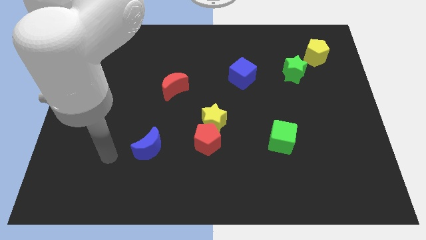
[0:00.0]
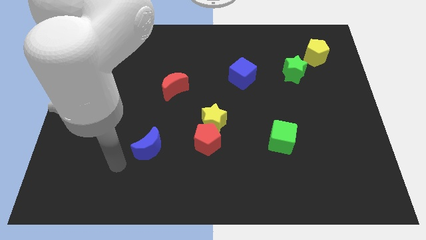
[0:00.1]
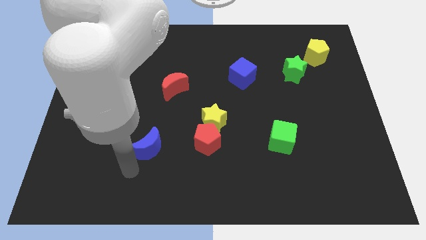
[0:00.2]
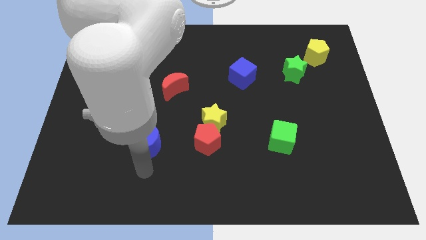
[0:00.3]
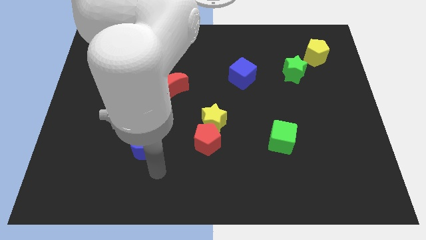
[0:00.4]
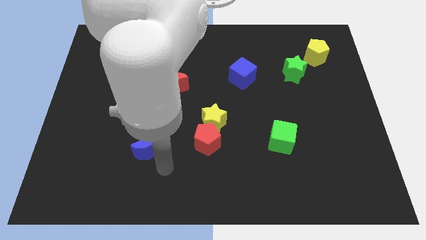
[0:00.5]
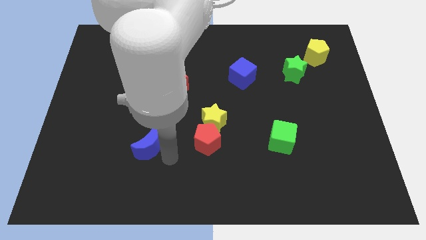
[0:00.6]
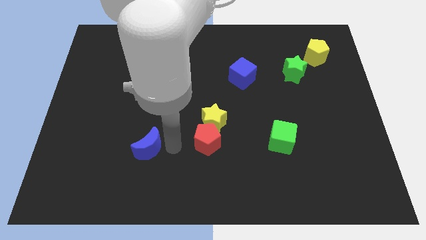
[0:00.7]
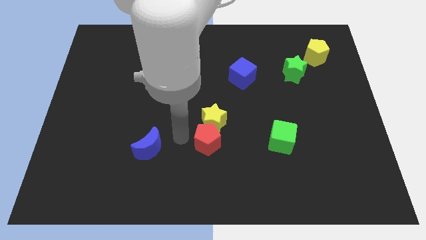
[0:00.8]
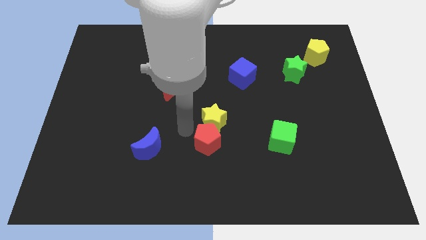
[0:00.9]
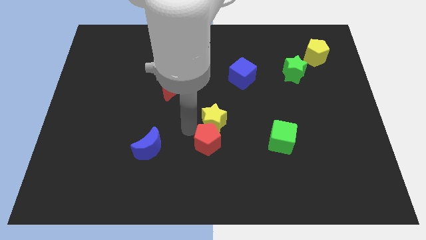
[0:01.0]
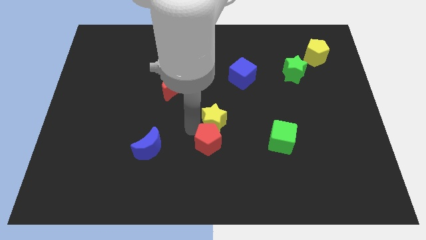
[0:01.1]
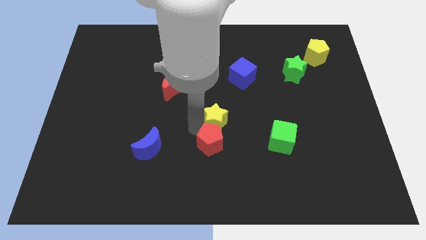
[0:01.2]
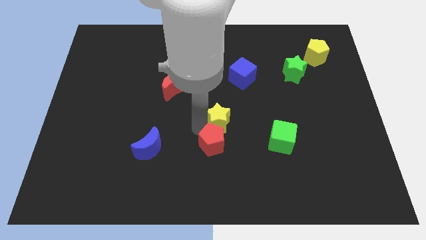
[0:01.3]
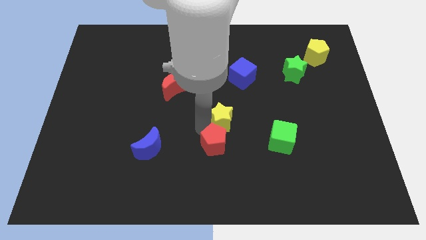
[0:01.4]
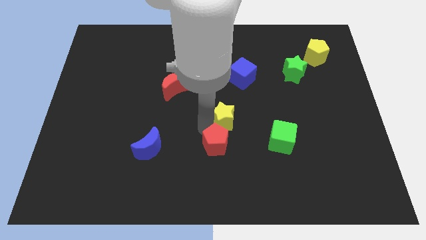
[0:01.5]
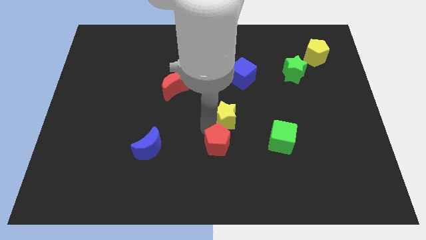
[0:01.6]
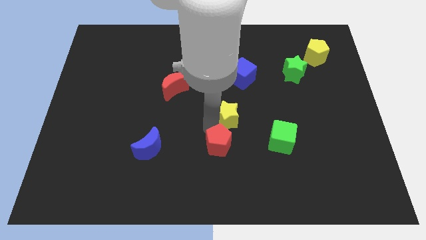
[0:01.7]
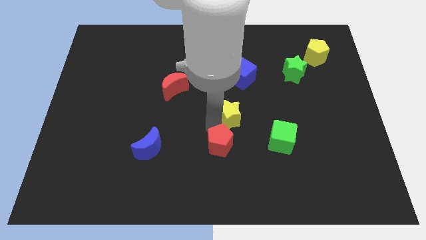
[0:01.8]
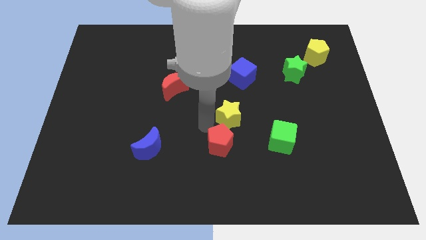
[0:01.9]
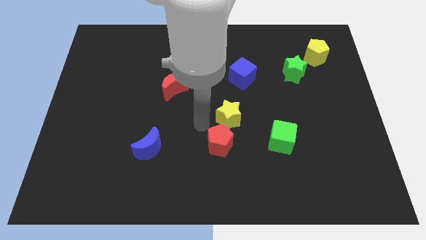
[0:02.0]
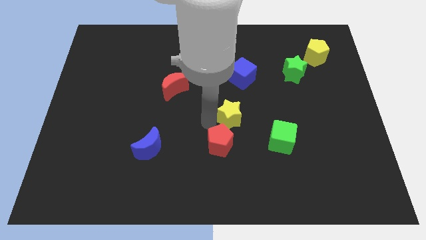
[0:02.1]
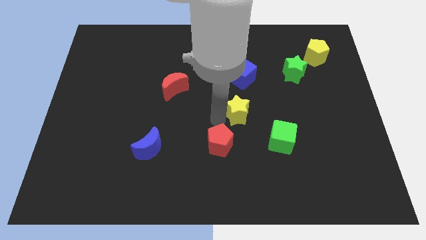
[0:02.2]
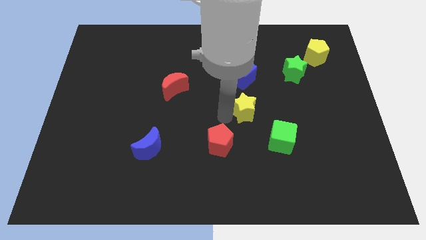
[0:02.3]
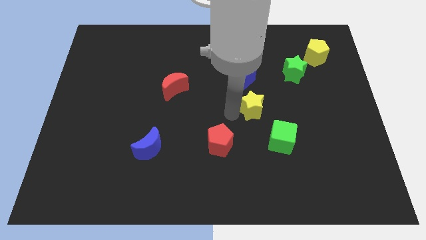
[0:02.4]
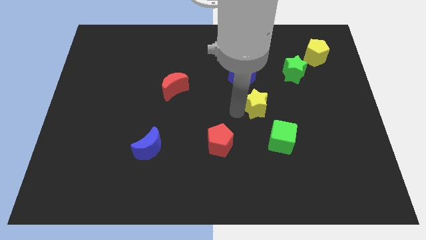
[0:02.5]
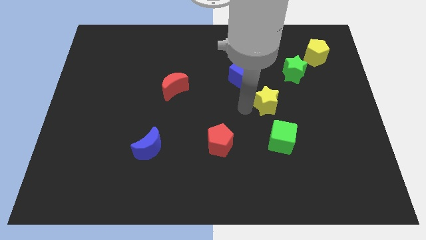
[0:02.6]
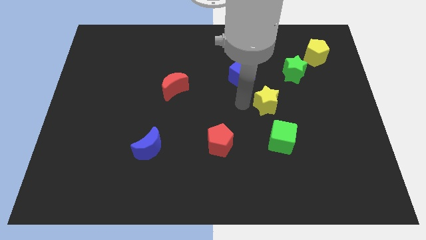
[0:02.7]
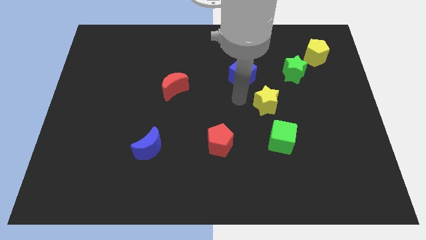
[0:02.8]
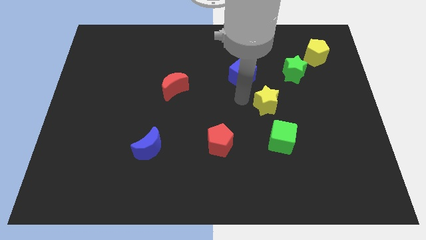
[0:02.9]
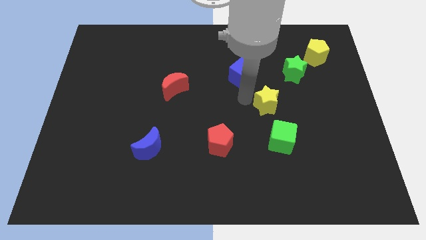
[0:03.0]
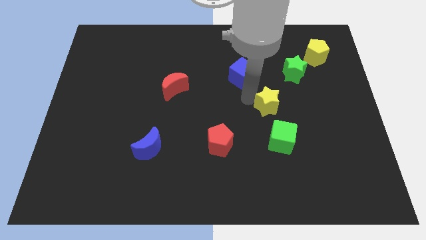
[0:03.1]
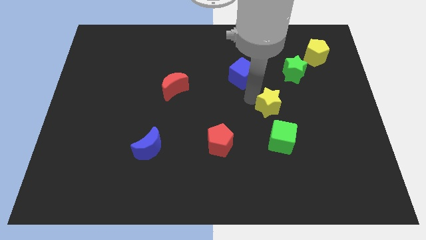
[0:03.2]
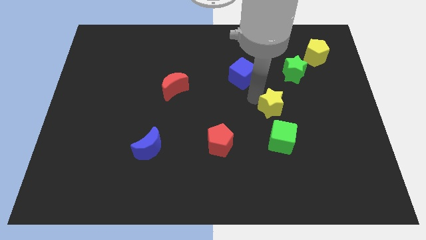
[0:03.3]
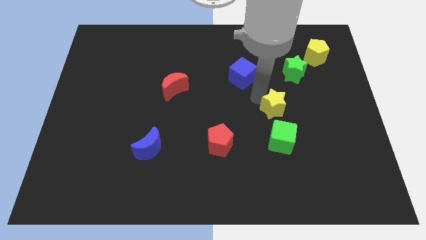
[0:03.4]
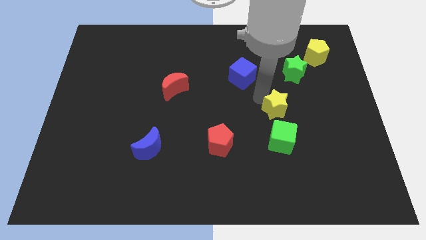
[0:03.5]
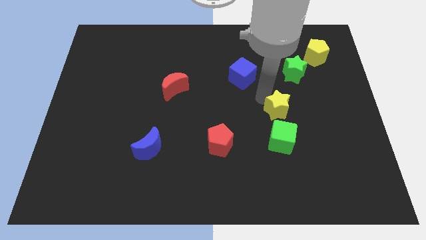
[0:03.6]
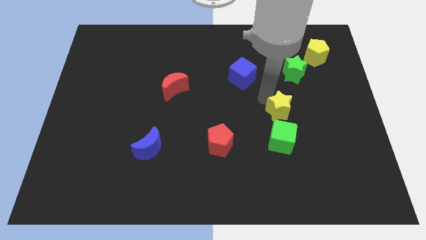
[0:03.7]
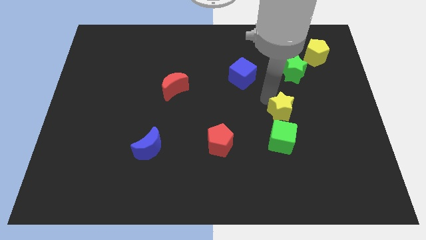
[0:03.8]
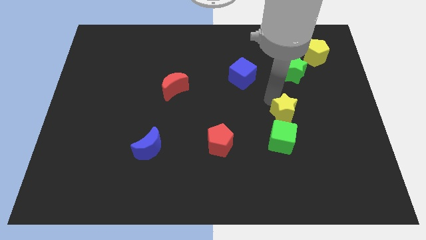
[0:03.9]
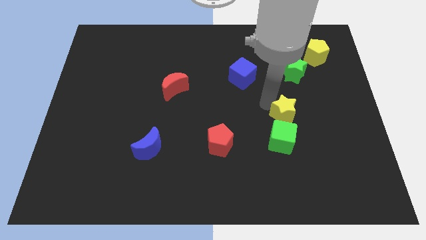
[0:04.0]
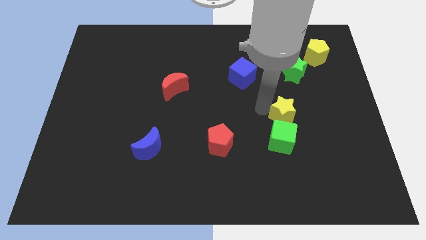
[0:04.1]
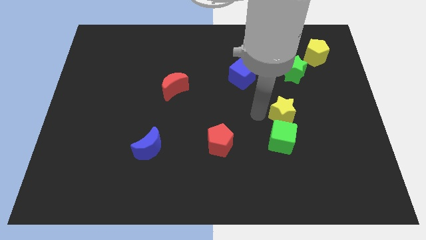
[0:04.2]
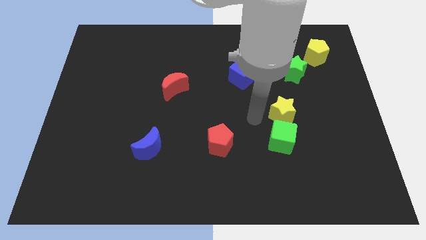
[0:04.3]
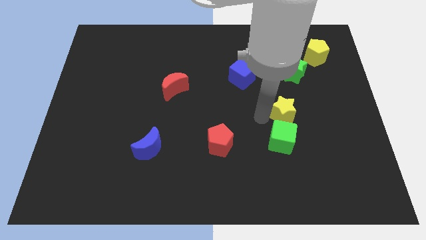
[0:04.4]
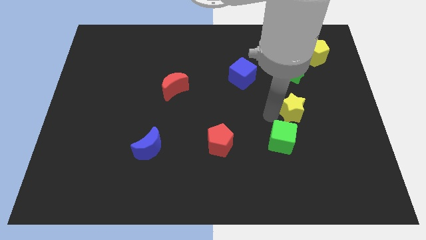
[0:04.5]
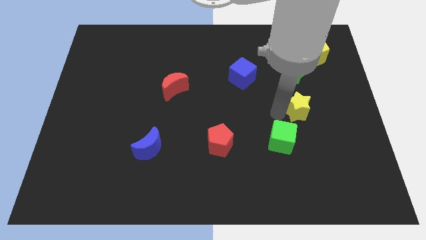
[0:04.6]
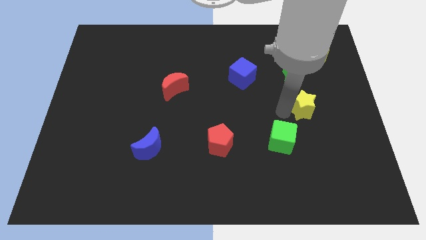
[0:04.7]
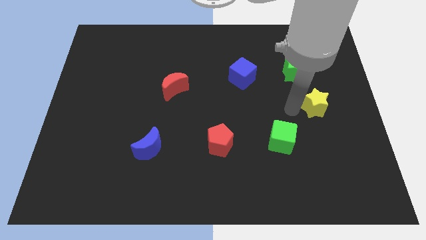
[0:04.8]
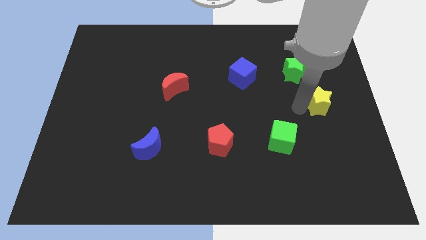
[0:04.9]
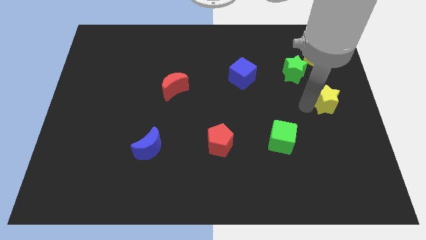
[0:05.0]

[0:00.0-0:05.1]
move the yellow star to the right side

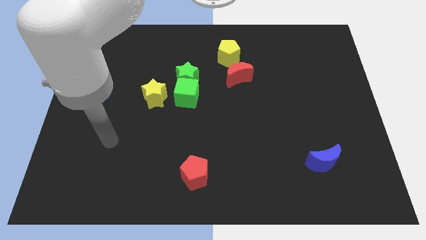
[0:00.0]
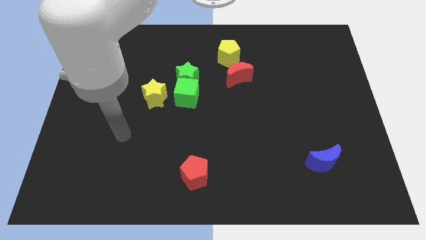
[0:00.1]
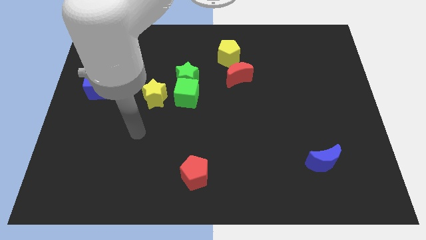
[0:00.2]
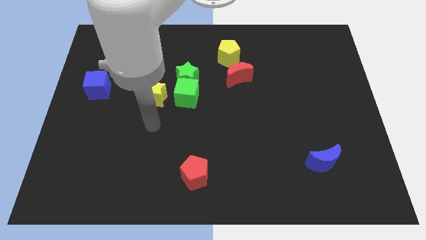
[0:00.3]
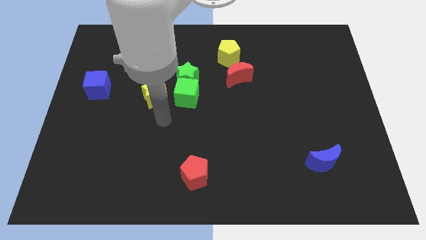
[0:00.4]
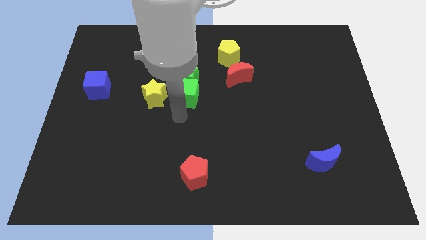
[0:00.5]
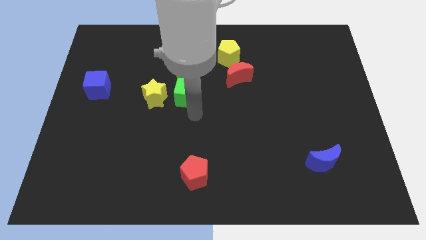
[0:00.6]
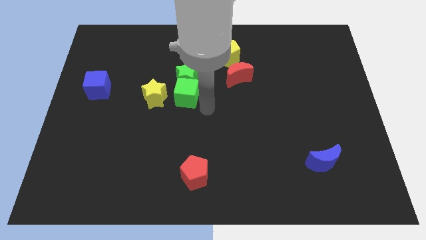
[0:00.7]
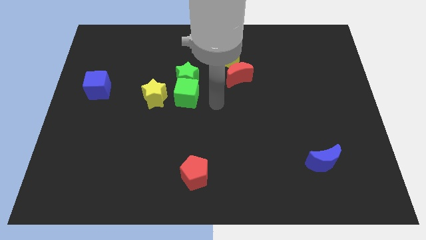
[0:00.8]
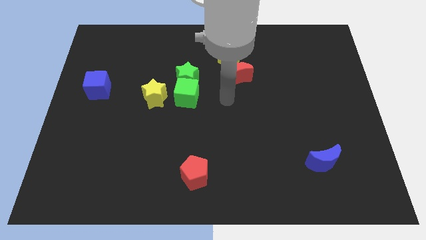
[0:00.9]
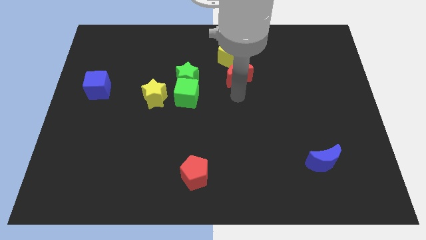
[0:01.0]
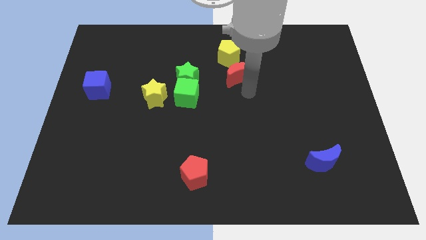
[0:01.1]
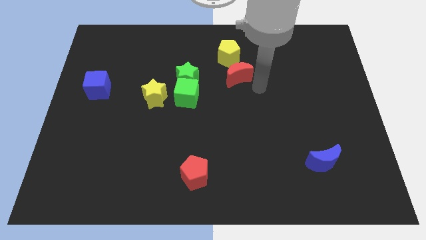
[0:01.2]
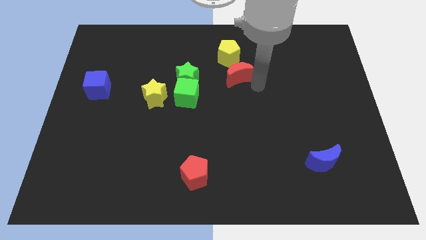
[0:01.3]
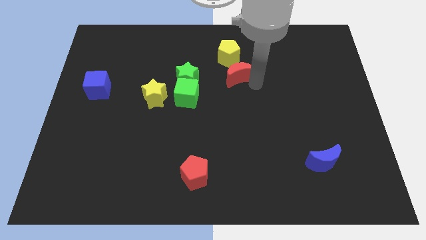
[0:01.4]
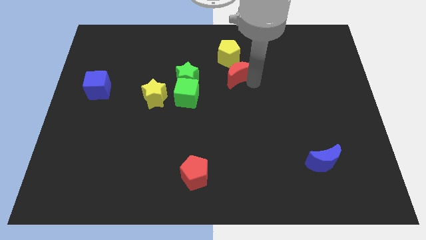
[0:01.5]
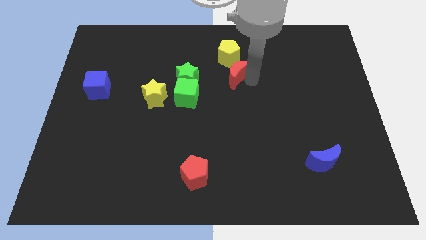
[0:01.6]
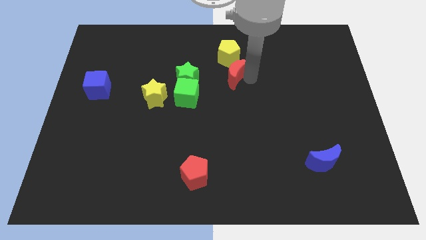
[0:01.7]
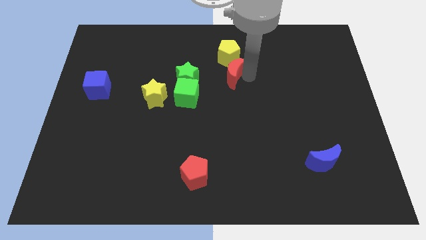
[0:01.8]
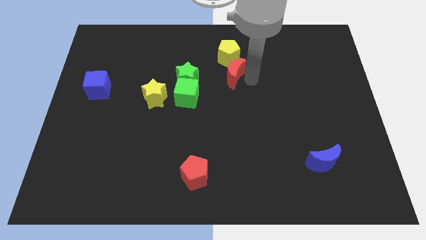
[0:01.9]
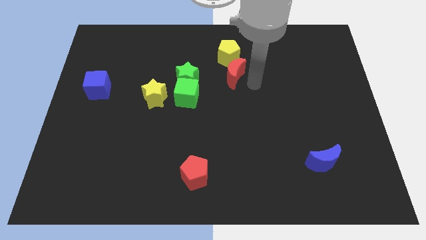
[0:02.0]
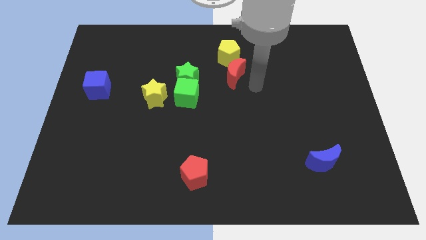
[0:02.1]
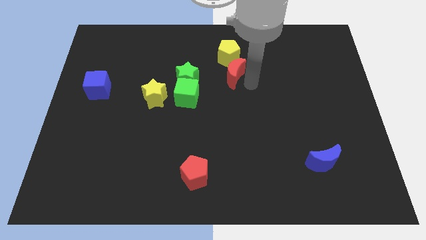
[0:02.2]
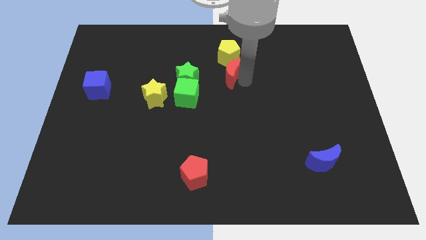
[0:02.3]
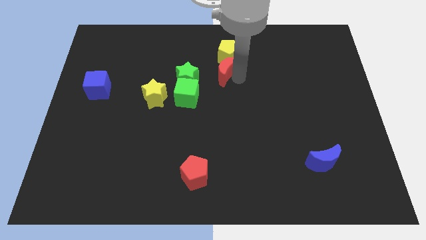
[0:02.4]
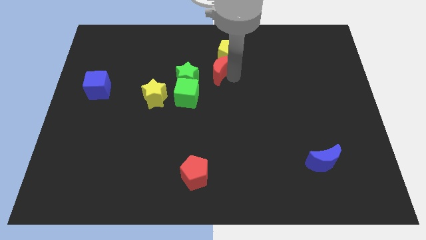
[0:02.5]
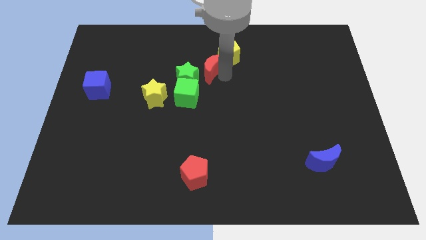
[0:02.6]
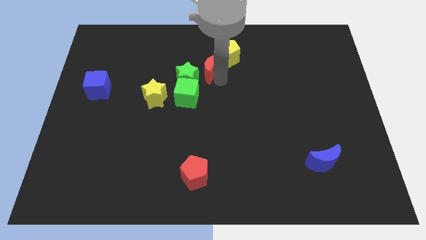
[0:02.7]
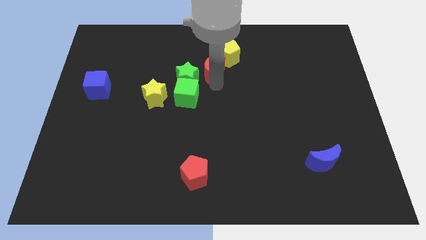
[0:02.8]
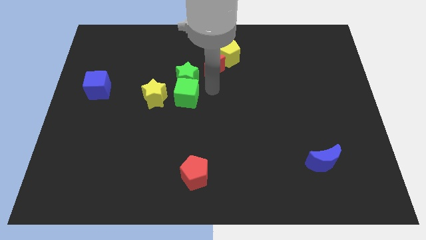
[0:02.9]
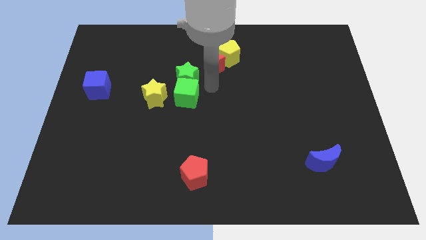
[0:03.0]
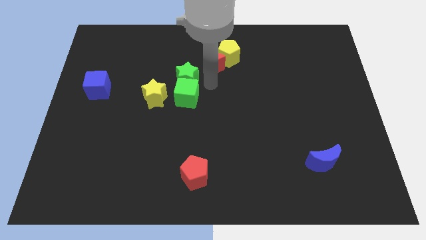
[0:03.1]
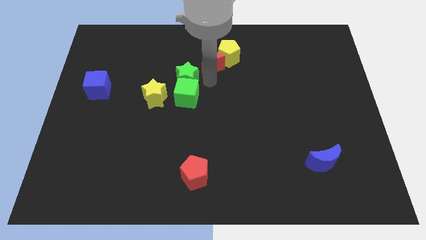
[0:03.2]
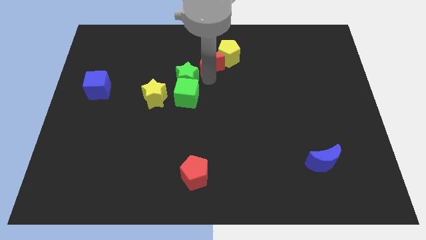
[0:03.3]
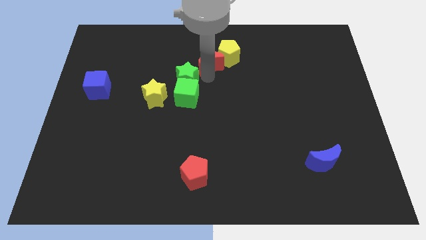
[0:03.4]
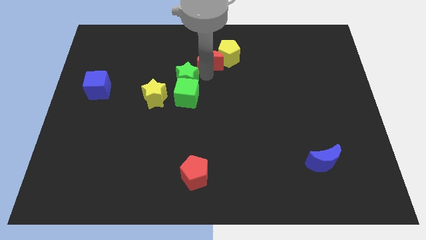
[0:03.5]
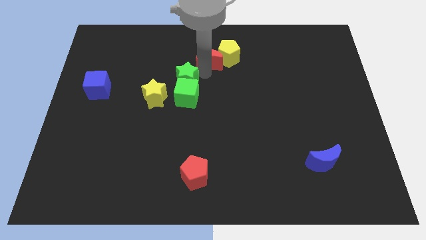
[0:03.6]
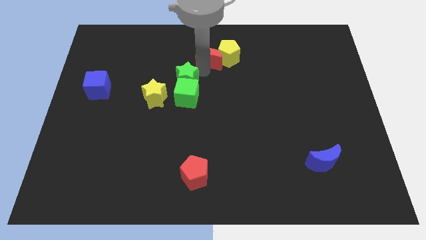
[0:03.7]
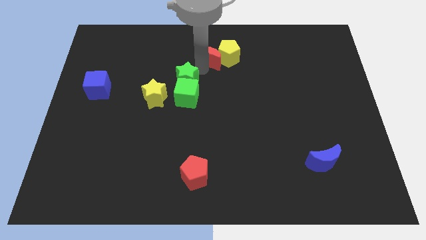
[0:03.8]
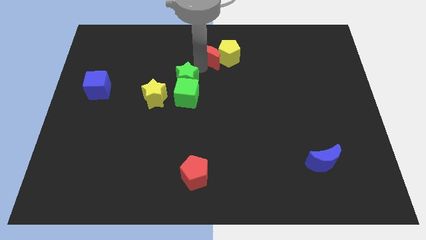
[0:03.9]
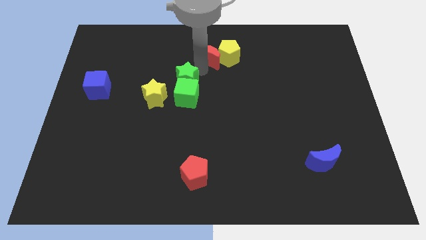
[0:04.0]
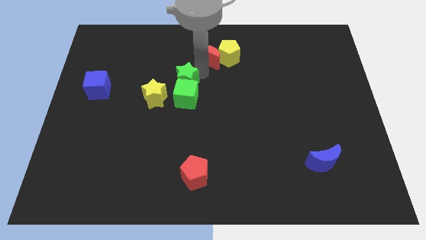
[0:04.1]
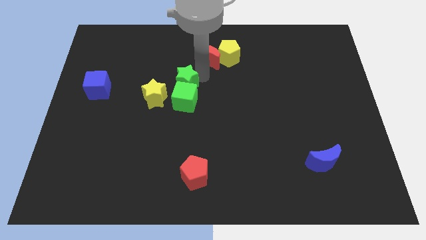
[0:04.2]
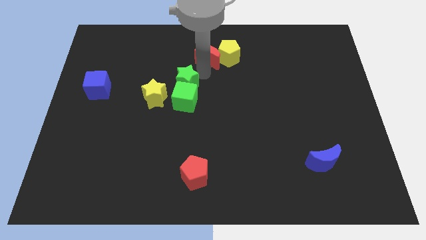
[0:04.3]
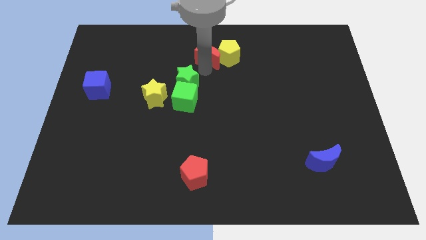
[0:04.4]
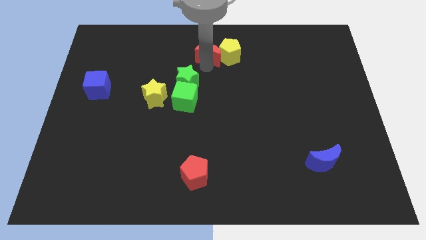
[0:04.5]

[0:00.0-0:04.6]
slide the red moon to the towards your base
